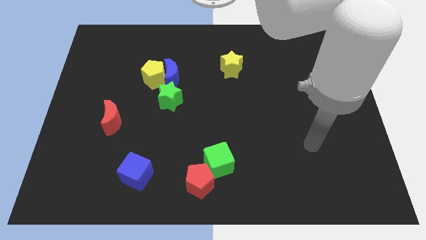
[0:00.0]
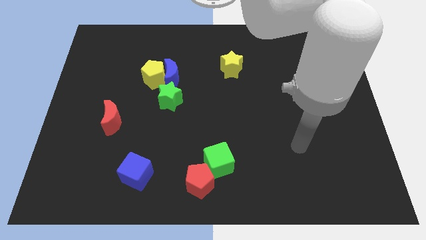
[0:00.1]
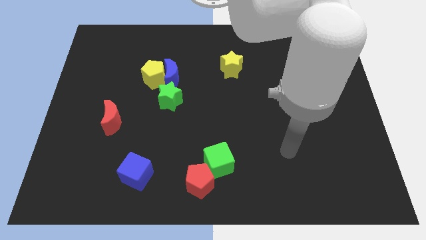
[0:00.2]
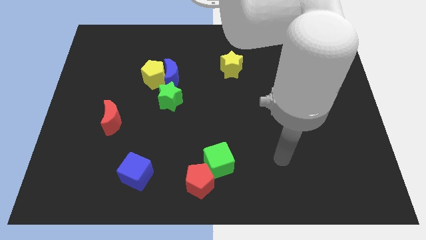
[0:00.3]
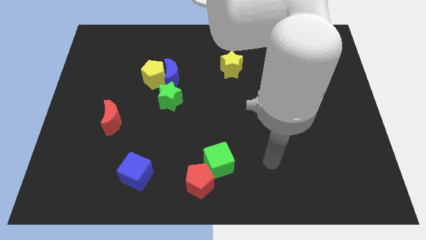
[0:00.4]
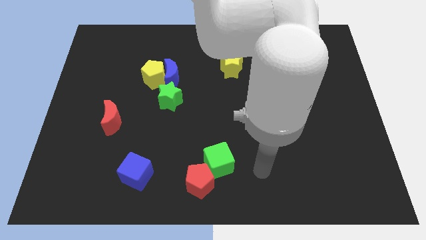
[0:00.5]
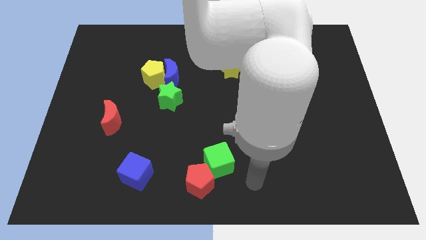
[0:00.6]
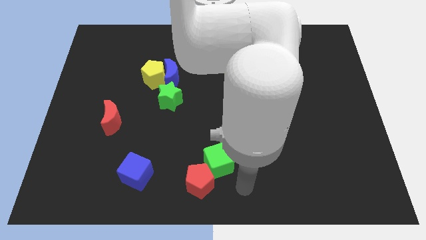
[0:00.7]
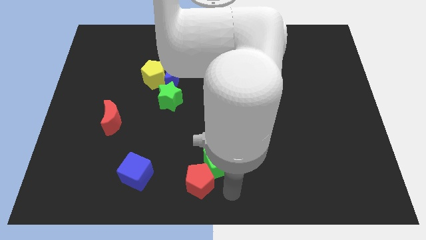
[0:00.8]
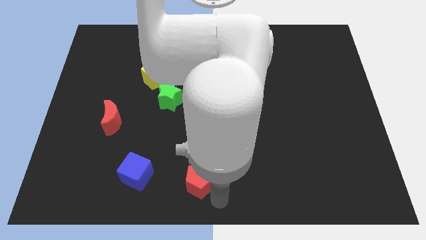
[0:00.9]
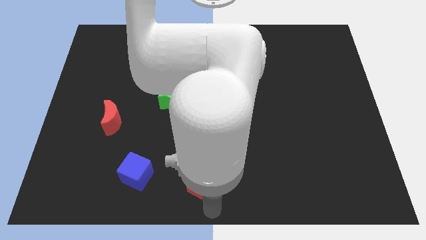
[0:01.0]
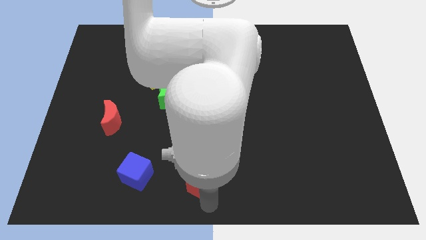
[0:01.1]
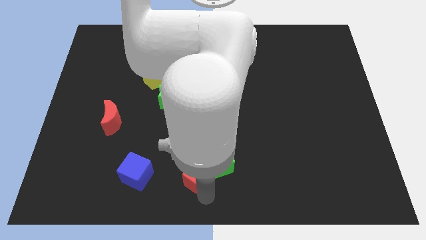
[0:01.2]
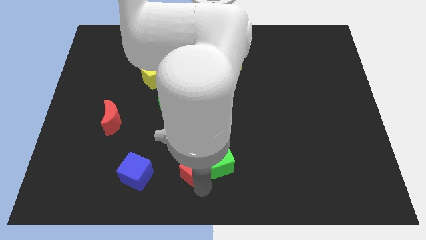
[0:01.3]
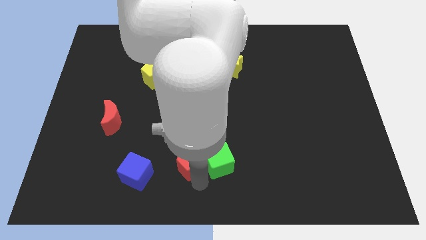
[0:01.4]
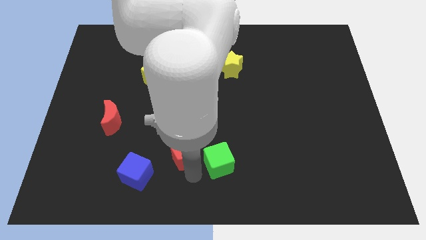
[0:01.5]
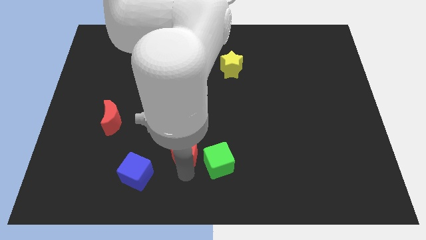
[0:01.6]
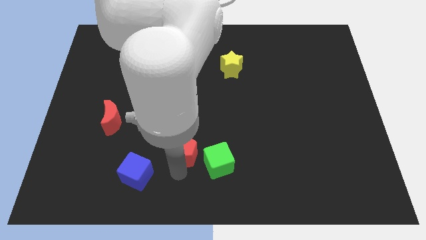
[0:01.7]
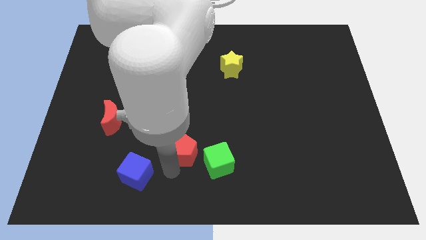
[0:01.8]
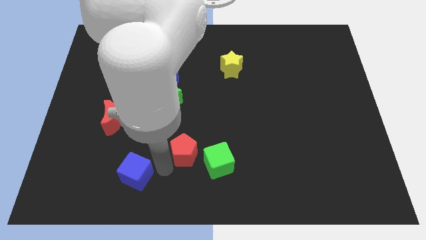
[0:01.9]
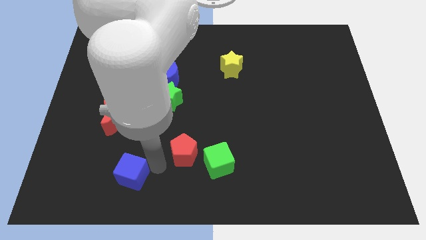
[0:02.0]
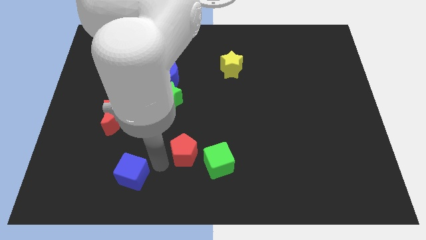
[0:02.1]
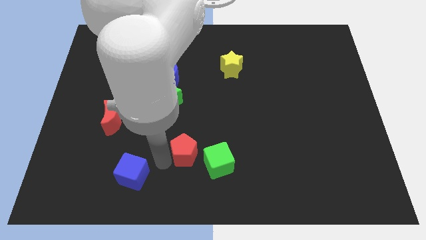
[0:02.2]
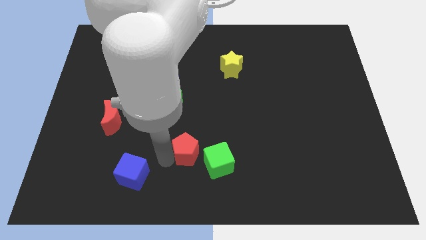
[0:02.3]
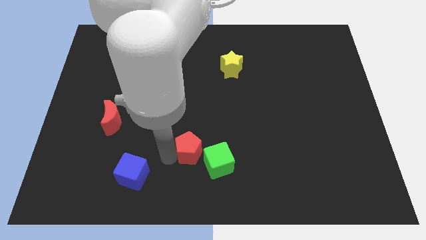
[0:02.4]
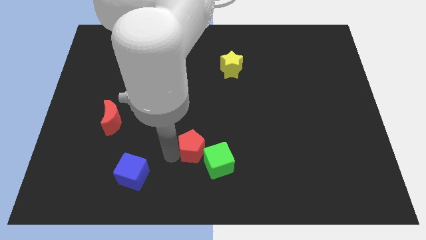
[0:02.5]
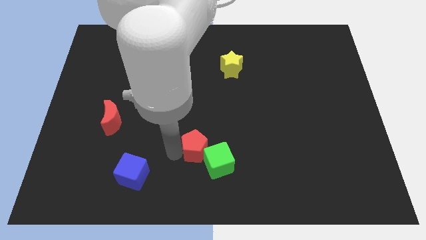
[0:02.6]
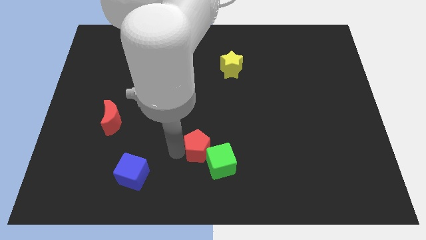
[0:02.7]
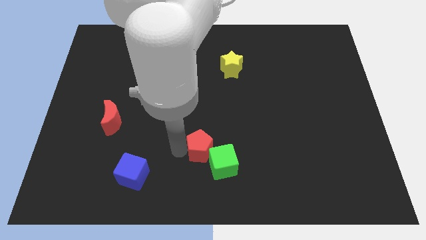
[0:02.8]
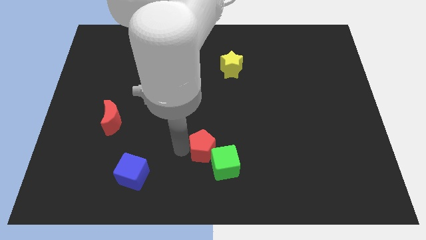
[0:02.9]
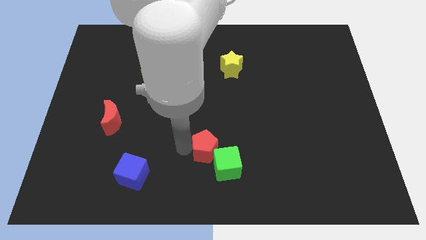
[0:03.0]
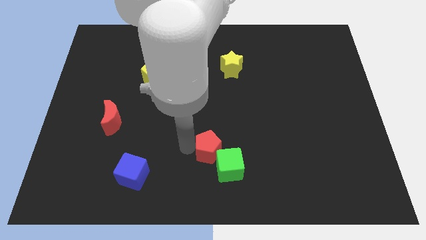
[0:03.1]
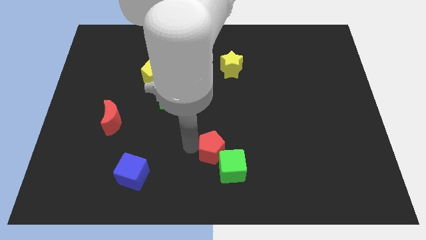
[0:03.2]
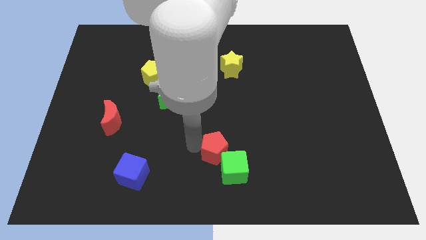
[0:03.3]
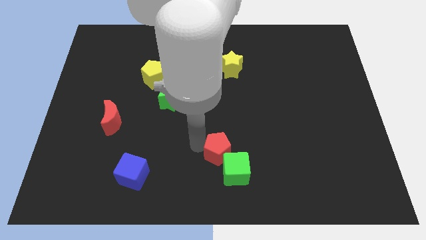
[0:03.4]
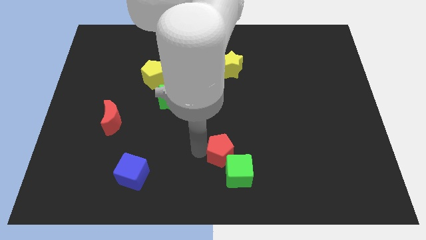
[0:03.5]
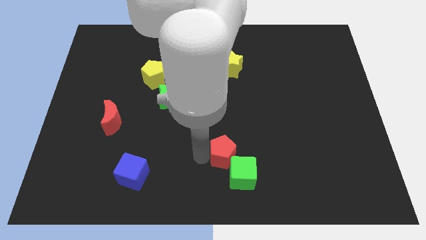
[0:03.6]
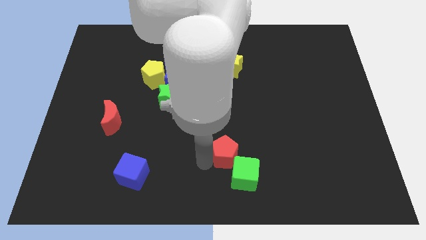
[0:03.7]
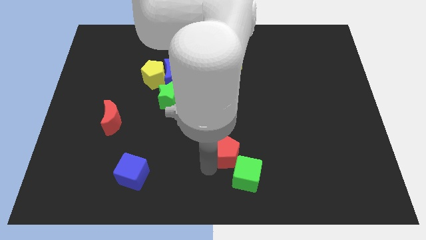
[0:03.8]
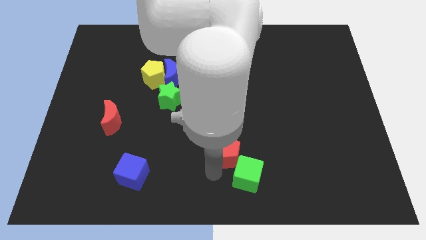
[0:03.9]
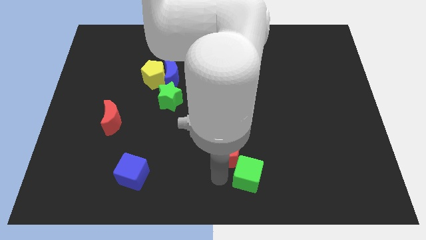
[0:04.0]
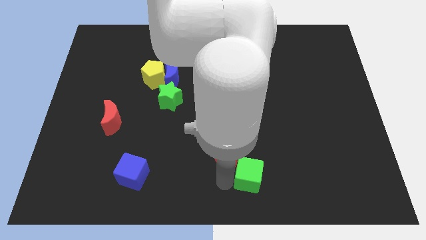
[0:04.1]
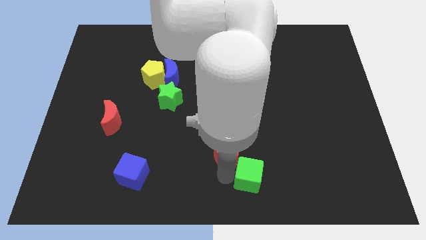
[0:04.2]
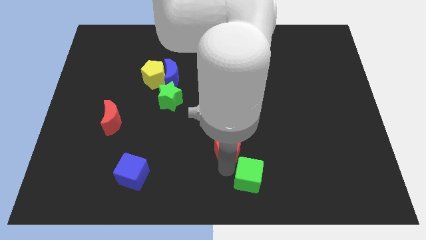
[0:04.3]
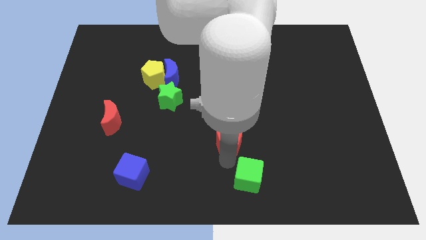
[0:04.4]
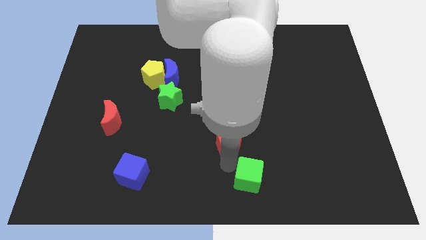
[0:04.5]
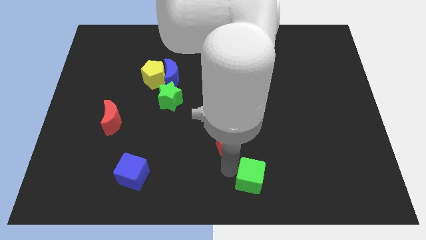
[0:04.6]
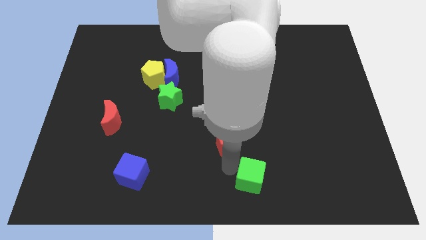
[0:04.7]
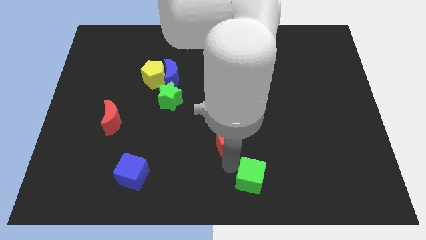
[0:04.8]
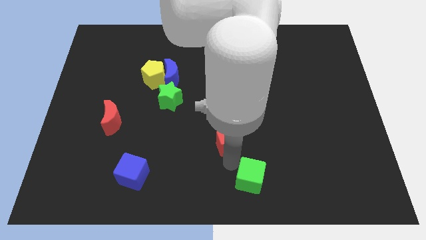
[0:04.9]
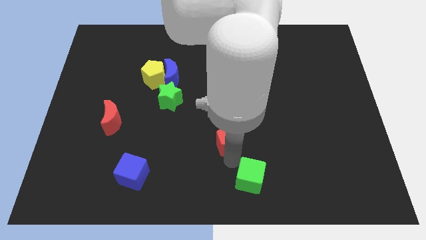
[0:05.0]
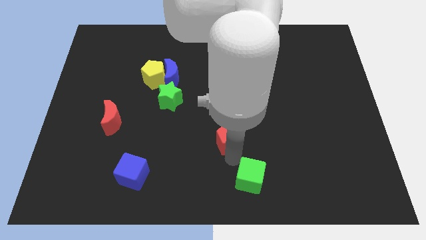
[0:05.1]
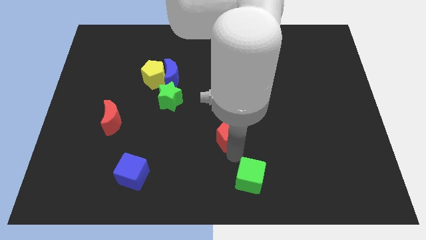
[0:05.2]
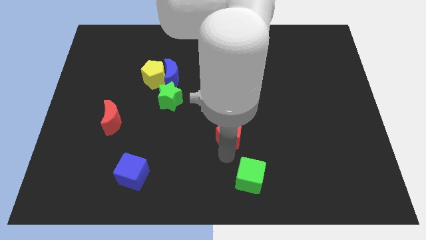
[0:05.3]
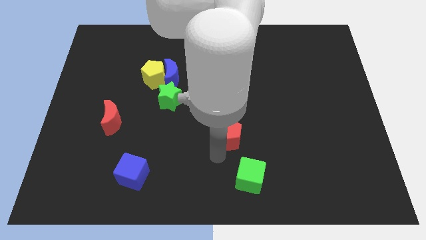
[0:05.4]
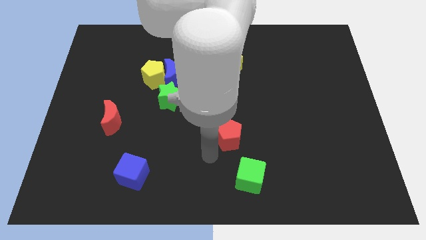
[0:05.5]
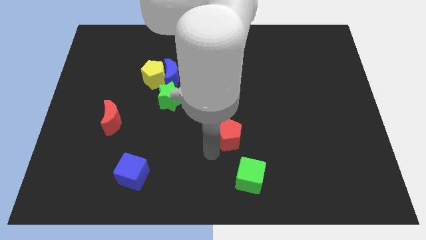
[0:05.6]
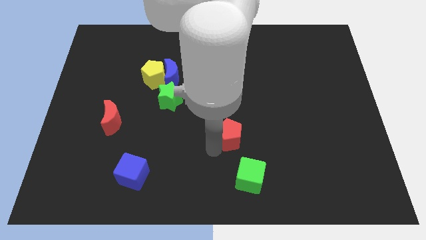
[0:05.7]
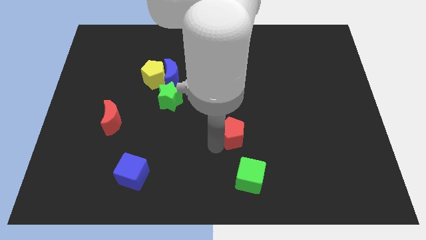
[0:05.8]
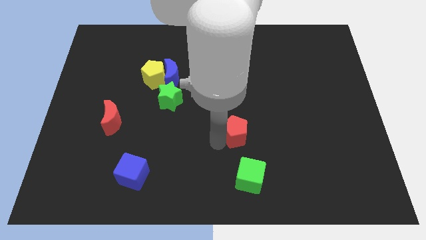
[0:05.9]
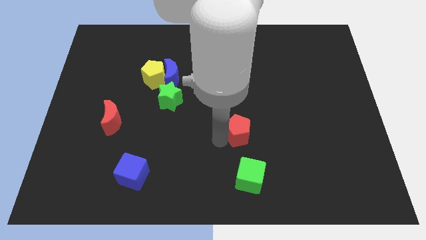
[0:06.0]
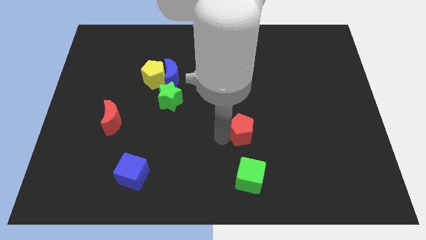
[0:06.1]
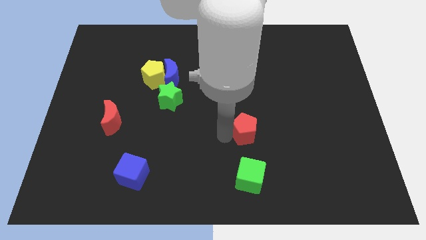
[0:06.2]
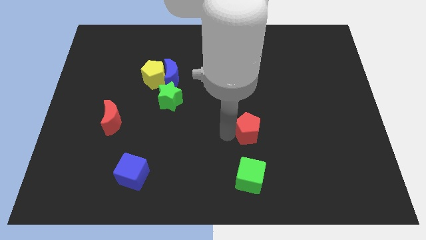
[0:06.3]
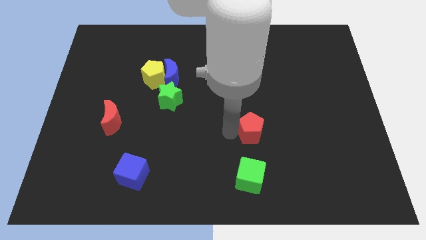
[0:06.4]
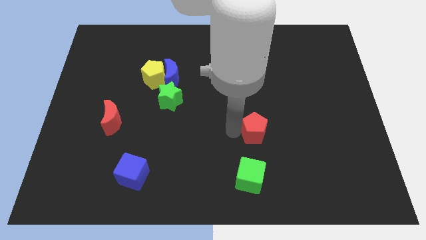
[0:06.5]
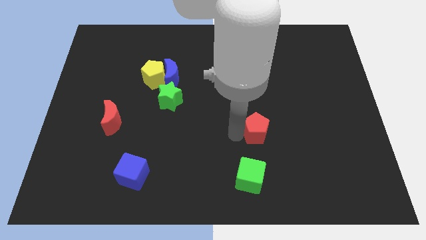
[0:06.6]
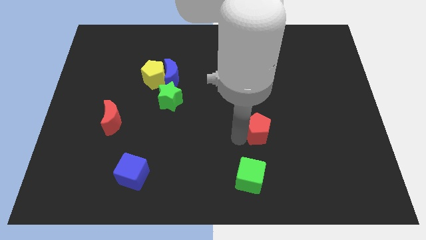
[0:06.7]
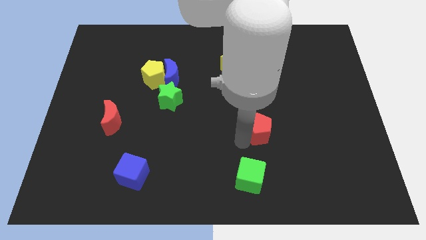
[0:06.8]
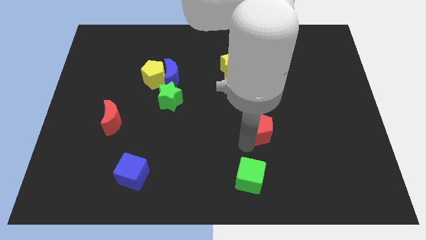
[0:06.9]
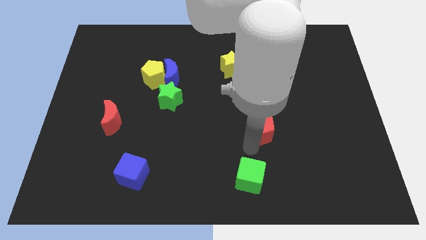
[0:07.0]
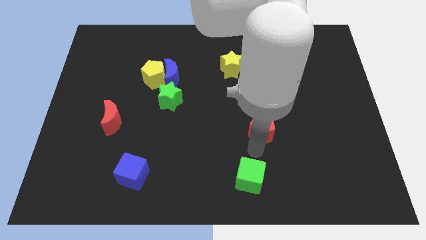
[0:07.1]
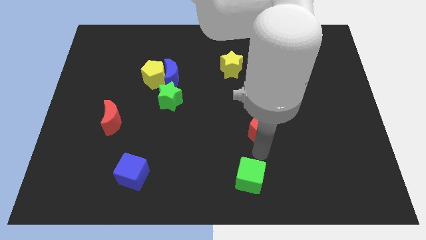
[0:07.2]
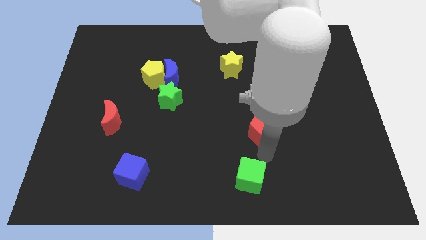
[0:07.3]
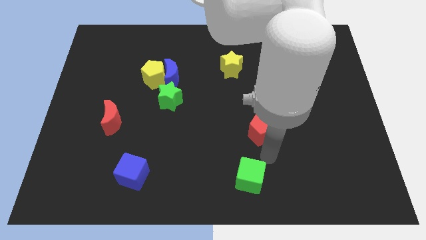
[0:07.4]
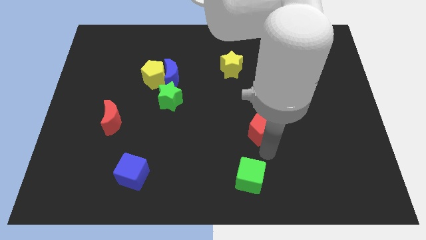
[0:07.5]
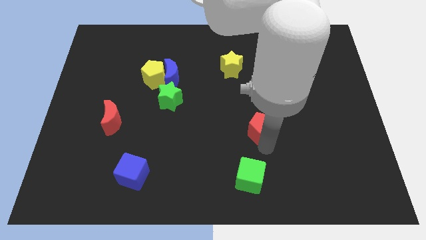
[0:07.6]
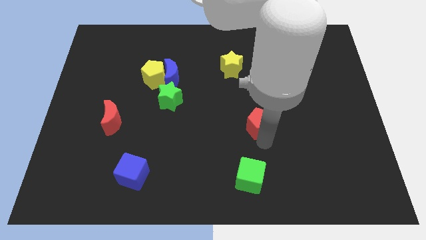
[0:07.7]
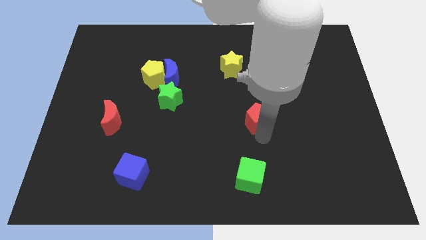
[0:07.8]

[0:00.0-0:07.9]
push the red pentagon upwards and then right

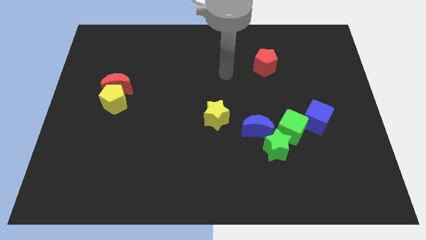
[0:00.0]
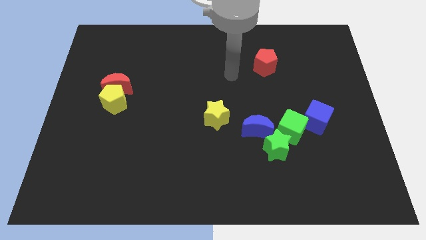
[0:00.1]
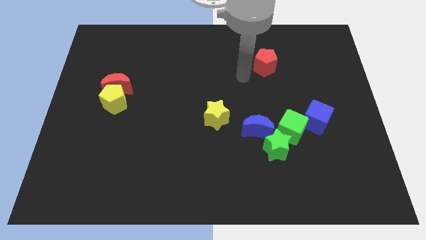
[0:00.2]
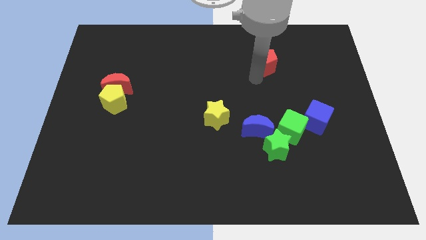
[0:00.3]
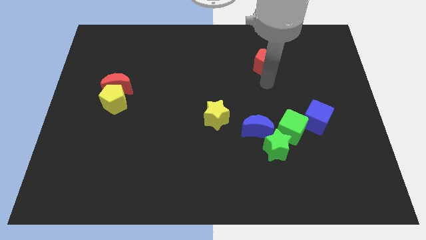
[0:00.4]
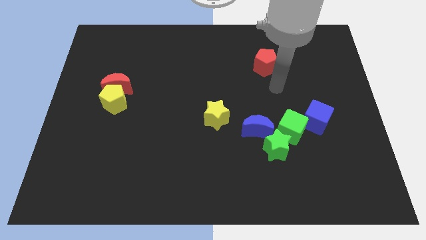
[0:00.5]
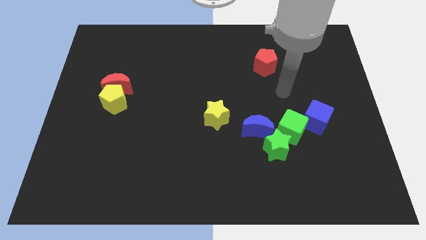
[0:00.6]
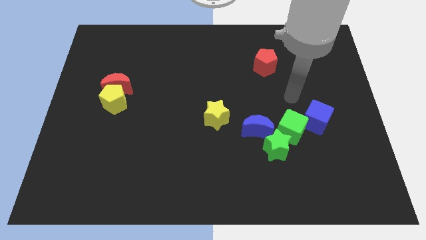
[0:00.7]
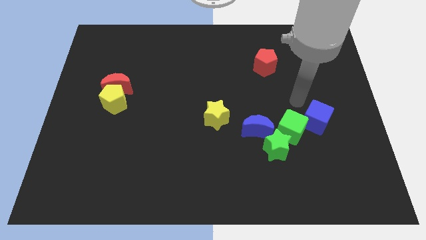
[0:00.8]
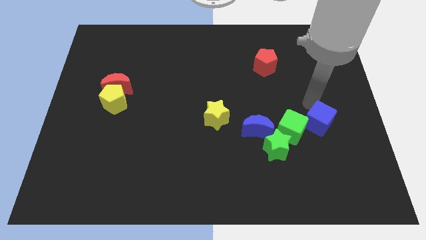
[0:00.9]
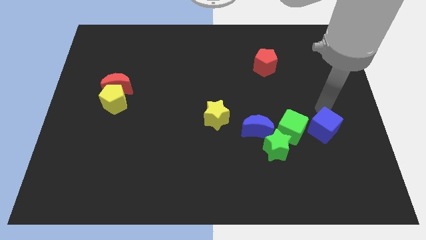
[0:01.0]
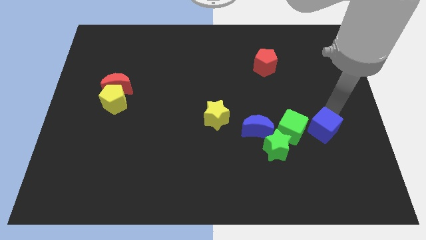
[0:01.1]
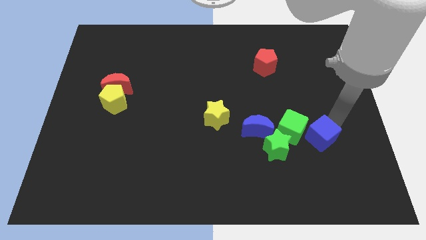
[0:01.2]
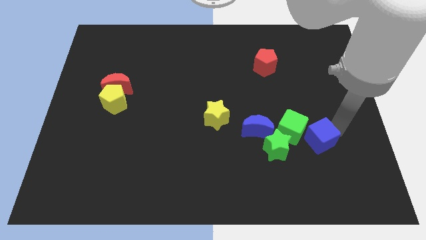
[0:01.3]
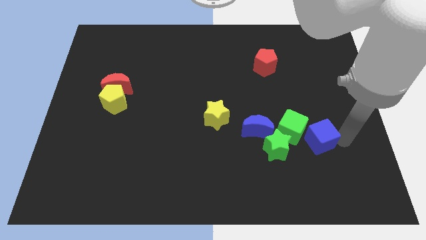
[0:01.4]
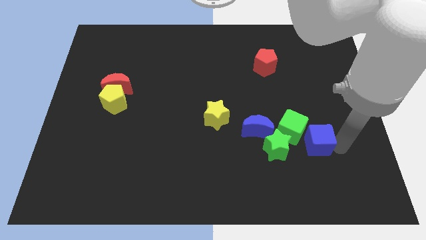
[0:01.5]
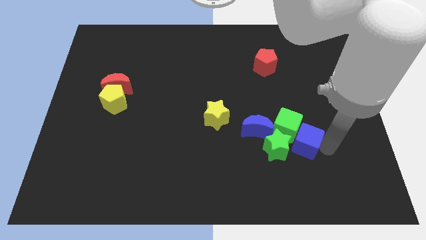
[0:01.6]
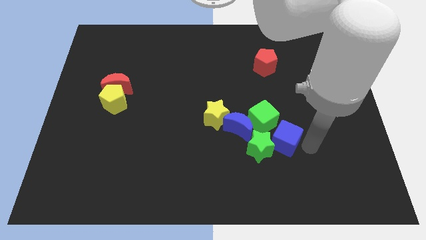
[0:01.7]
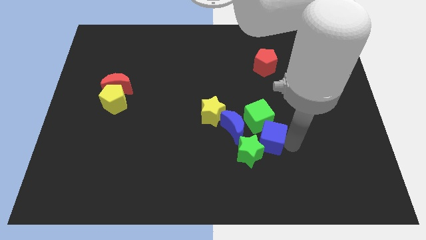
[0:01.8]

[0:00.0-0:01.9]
push the green cube a little upwards and to the left diagonally
